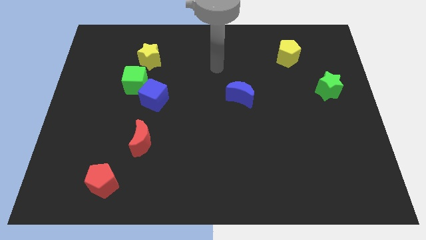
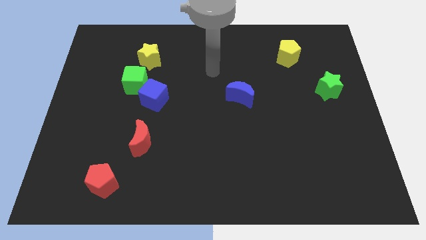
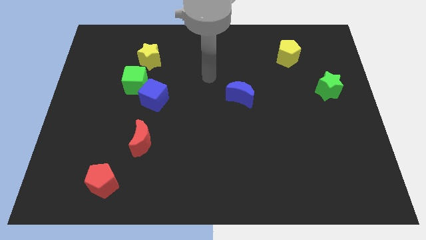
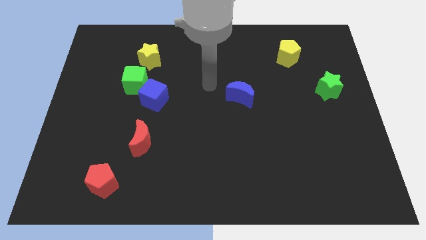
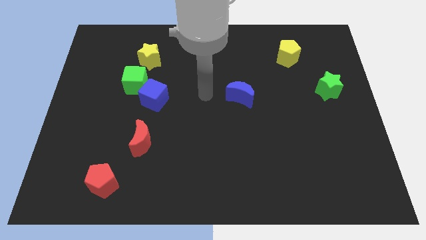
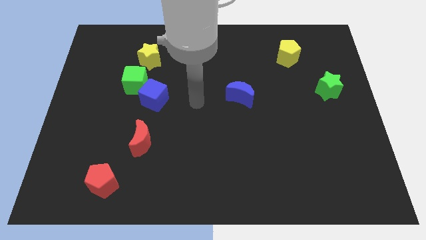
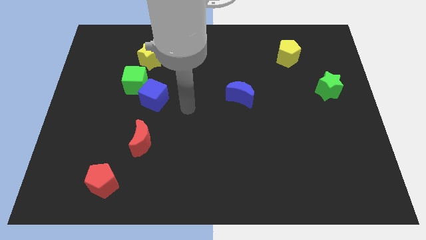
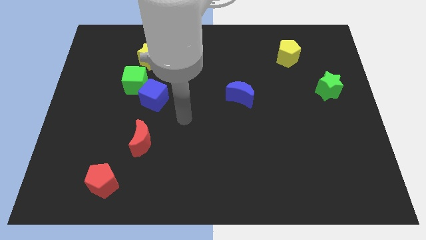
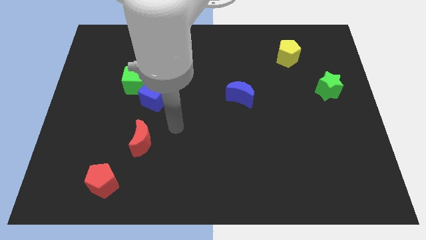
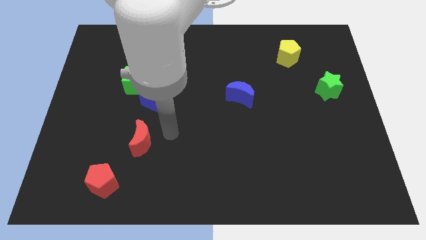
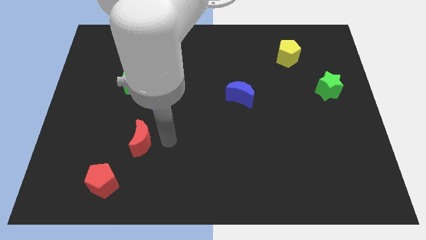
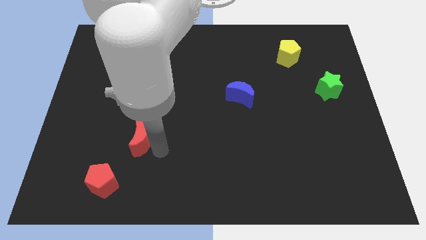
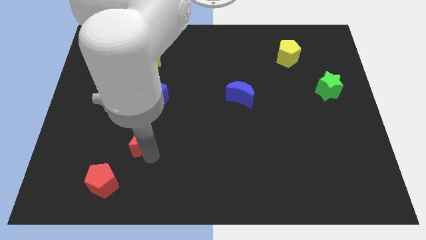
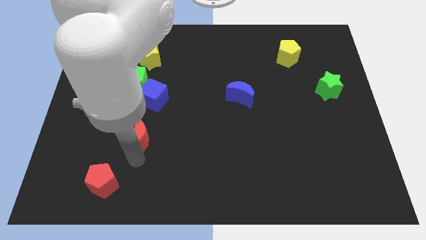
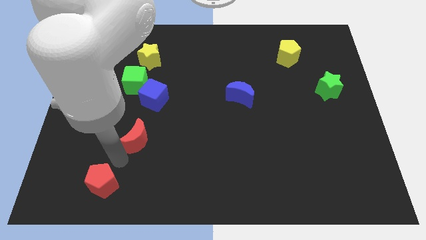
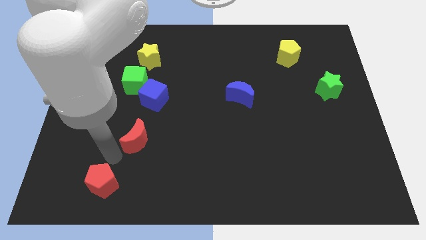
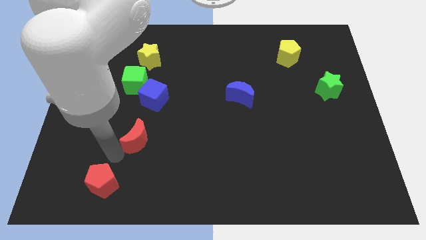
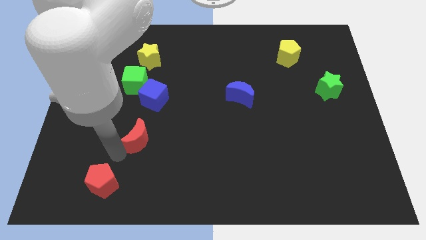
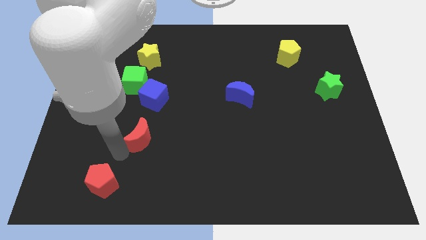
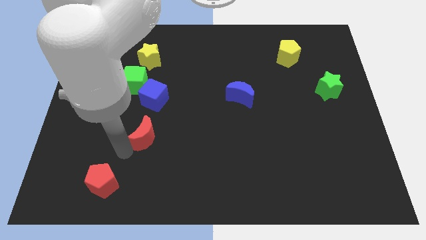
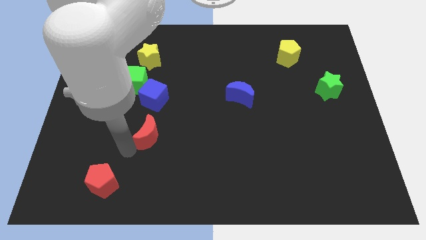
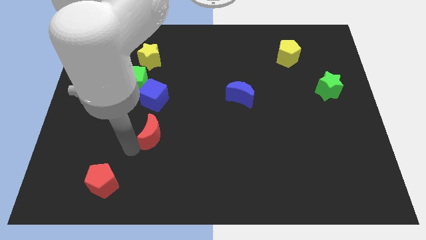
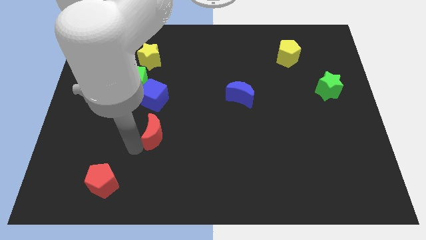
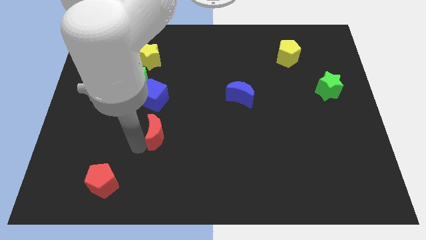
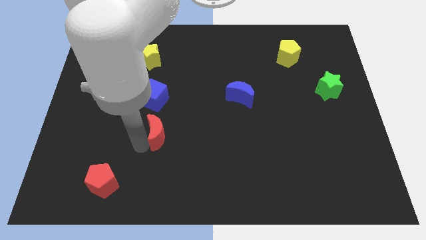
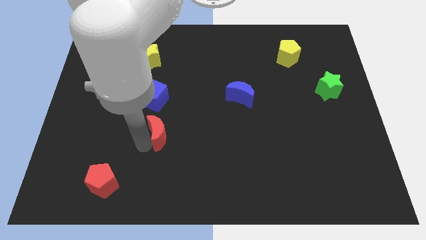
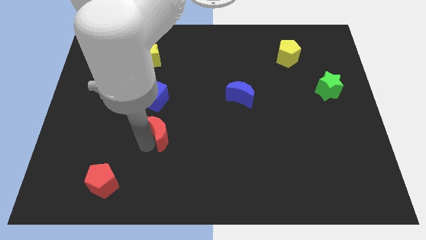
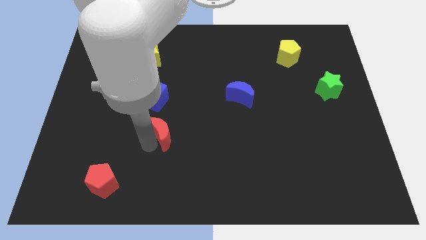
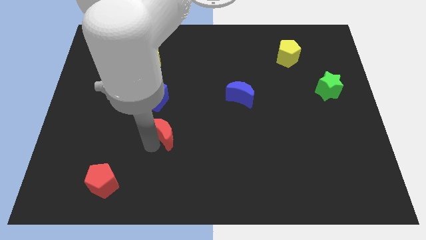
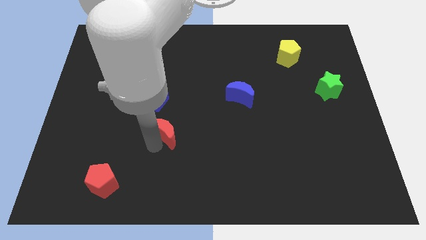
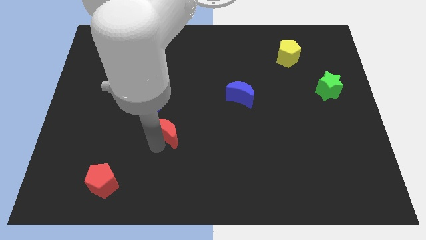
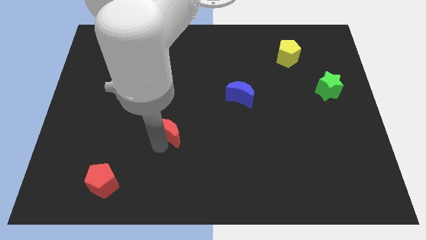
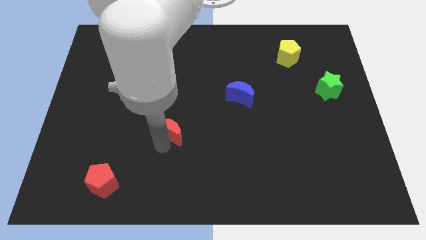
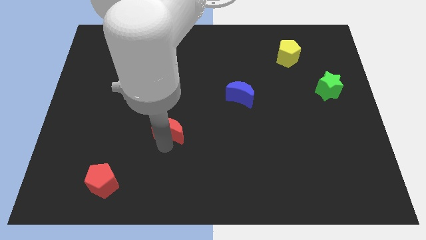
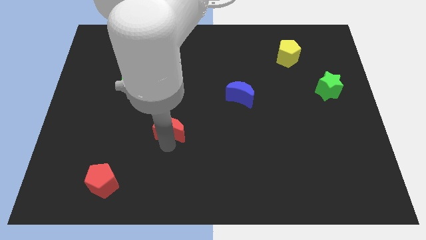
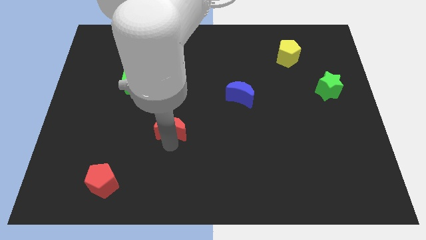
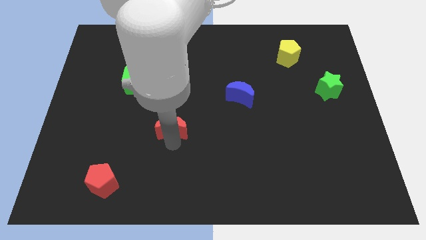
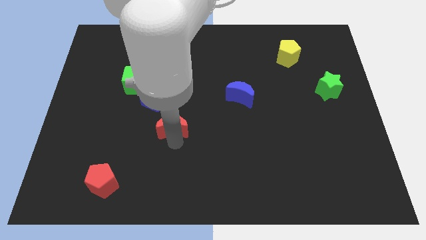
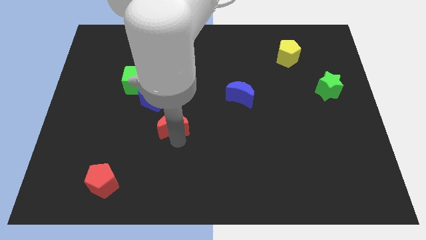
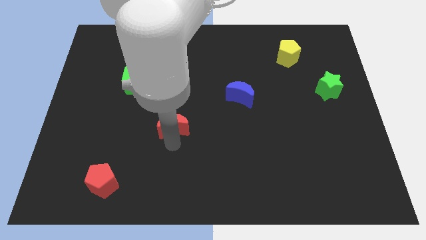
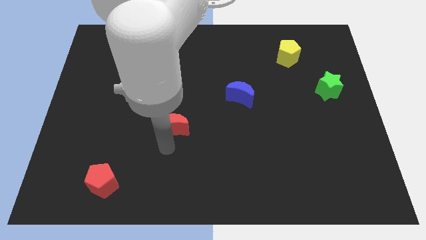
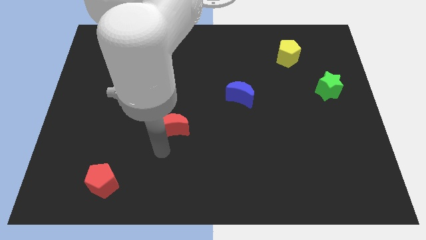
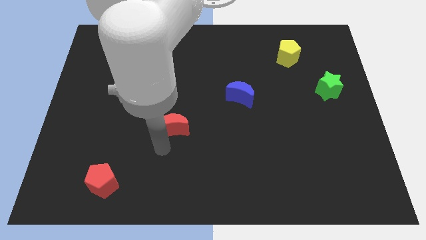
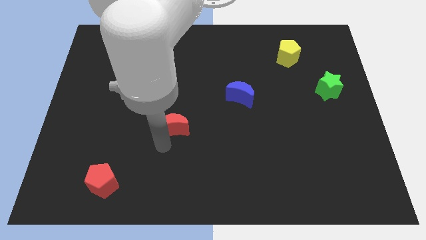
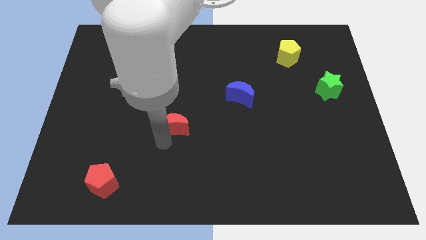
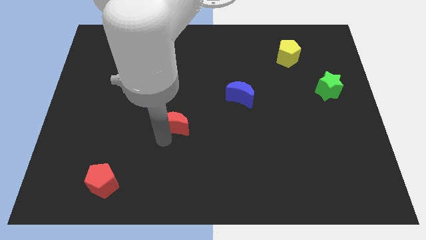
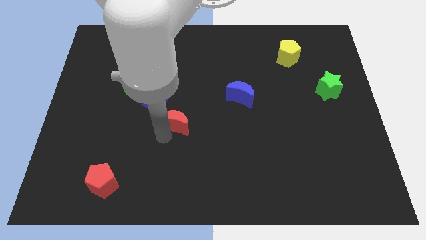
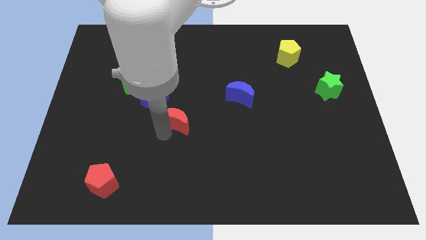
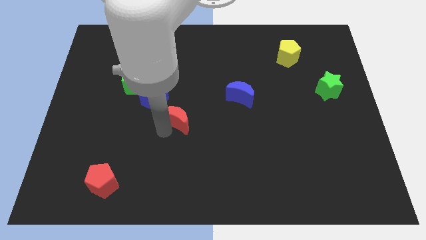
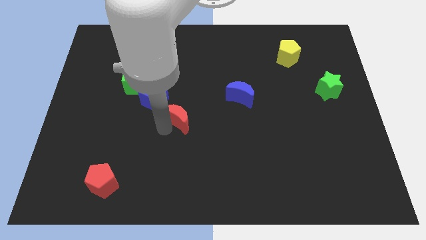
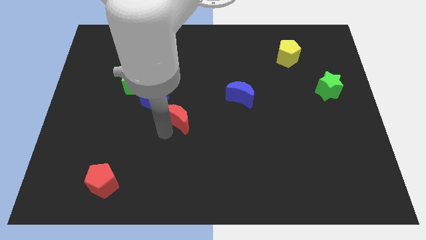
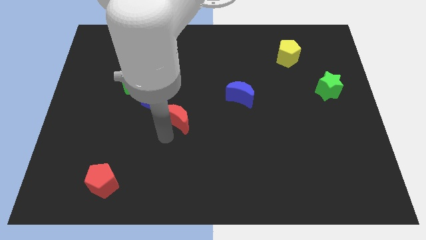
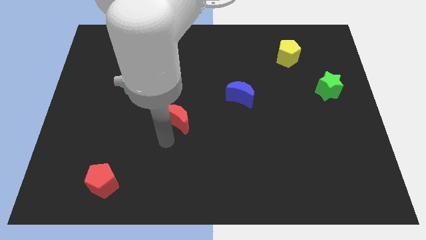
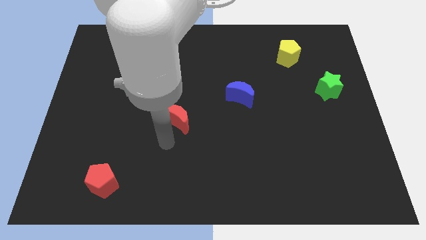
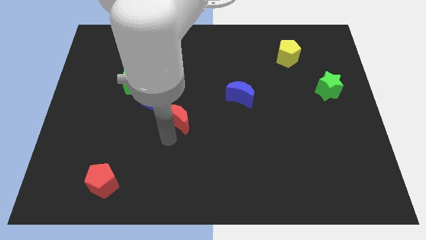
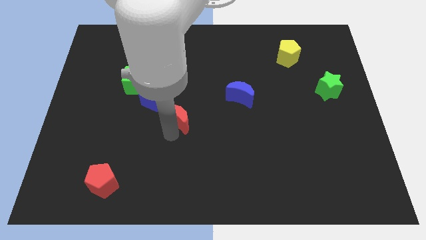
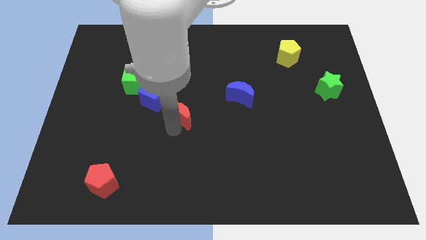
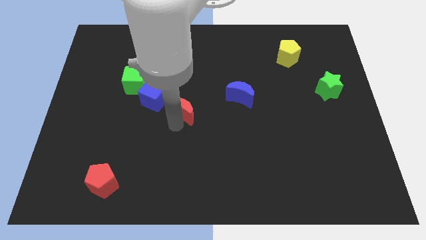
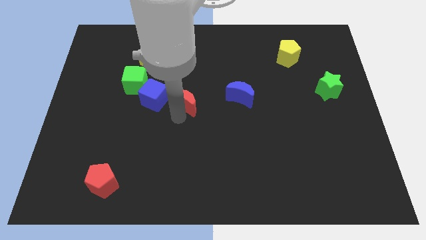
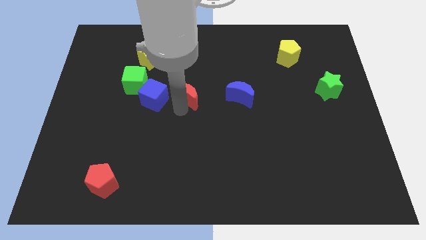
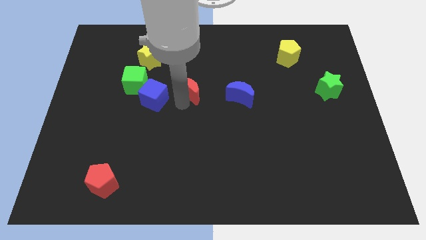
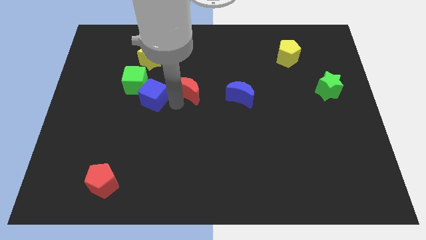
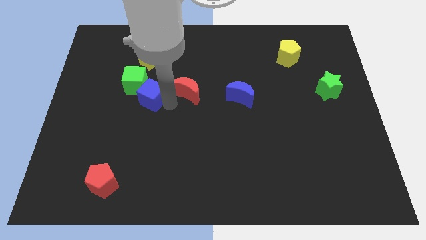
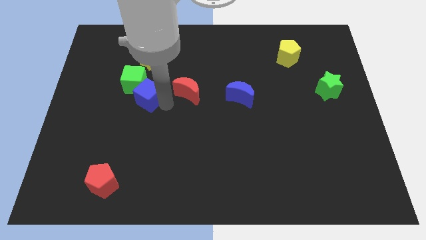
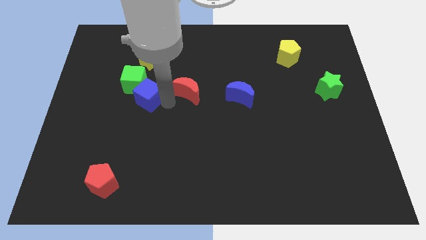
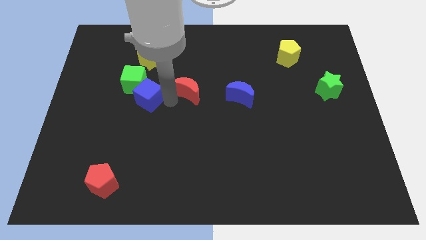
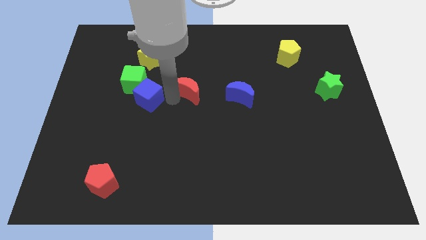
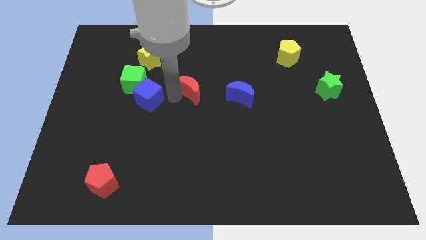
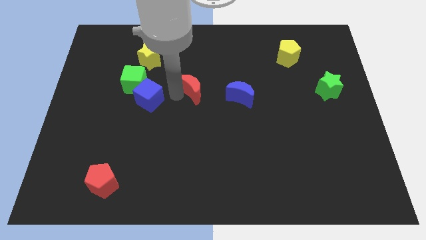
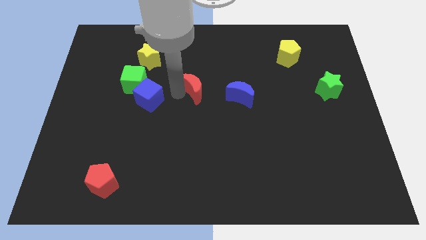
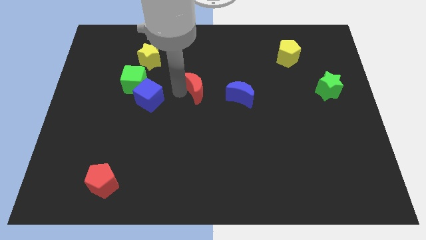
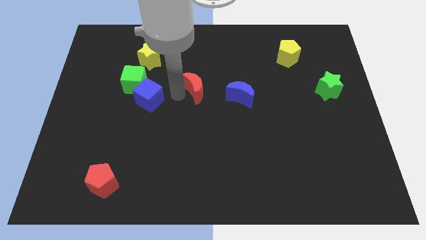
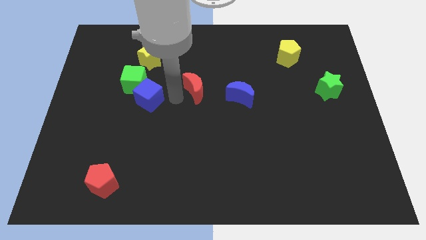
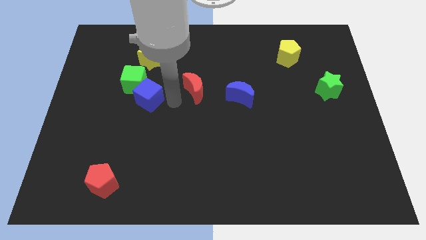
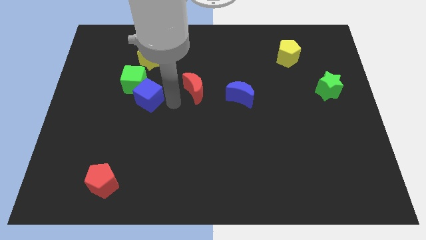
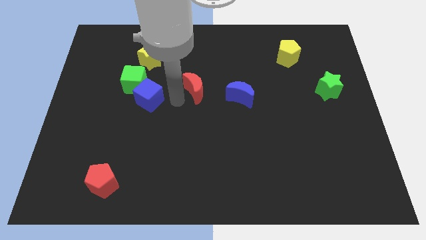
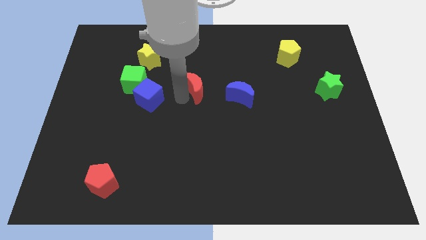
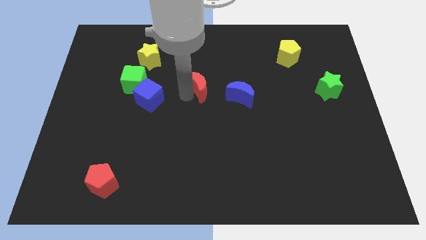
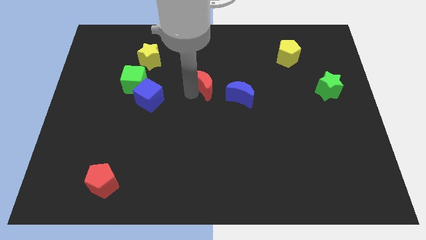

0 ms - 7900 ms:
move the red moon up and to the right diagonally
